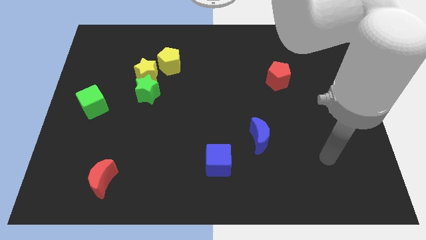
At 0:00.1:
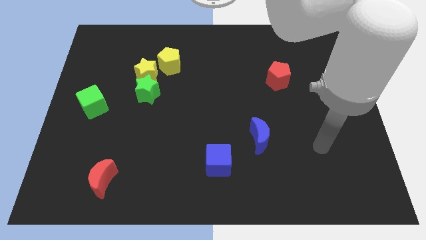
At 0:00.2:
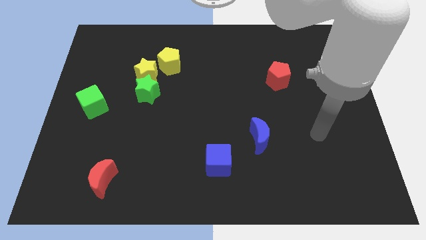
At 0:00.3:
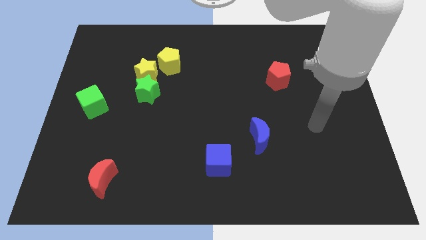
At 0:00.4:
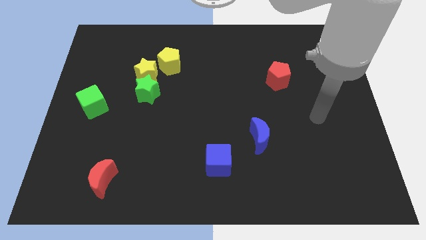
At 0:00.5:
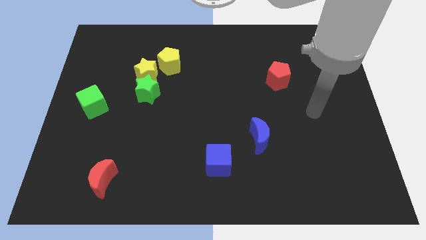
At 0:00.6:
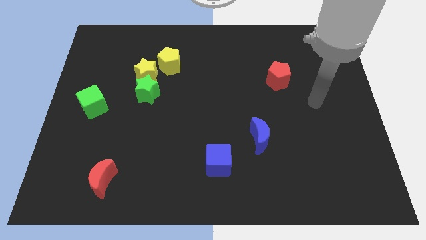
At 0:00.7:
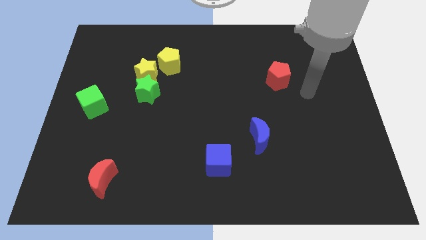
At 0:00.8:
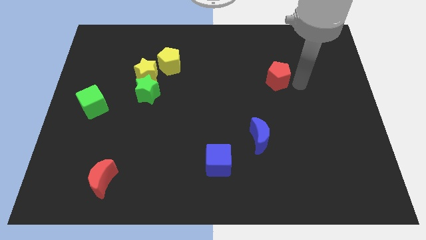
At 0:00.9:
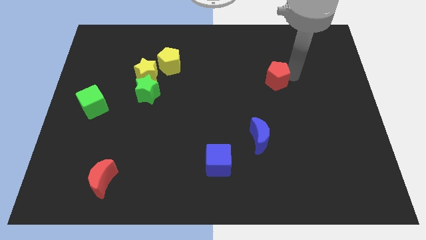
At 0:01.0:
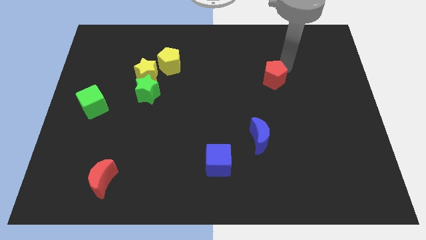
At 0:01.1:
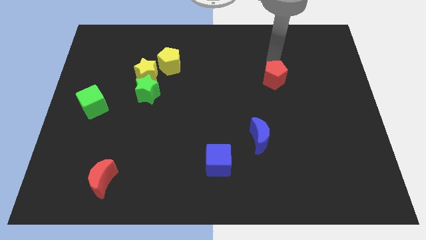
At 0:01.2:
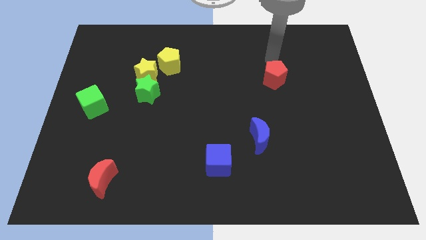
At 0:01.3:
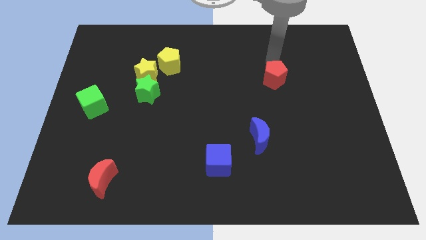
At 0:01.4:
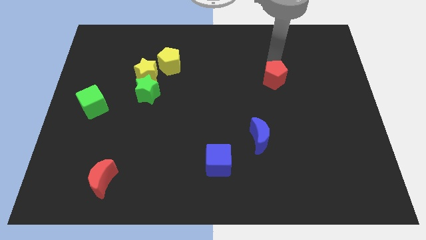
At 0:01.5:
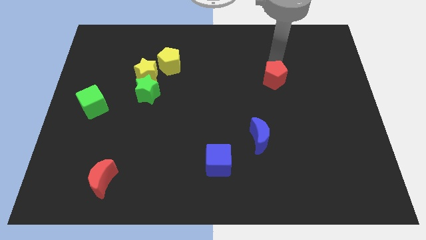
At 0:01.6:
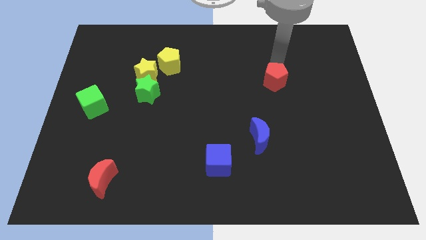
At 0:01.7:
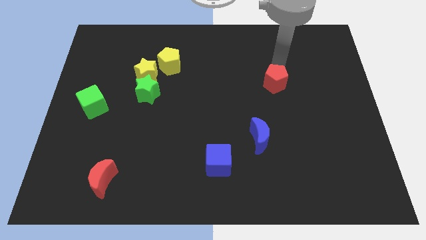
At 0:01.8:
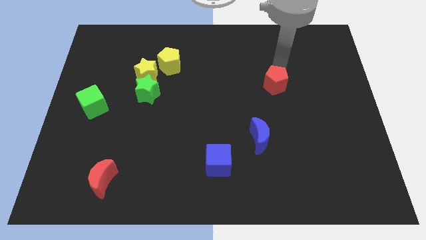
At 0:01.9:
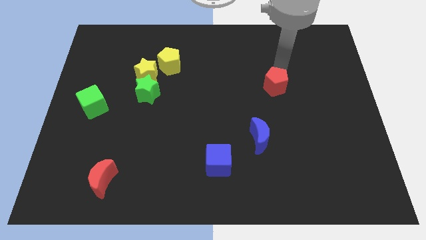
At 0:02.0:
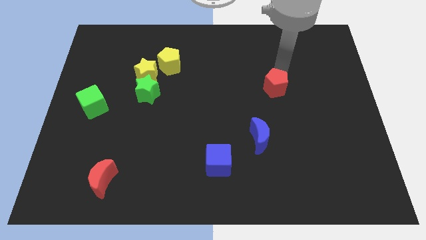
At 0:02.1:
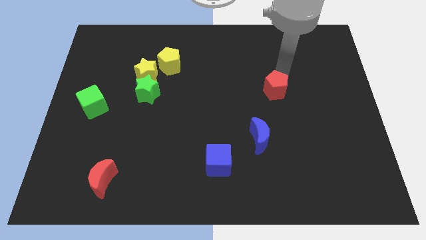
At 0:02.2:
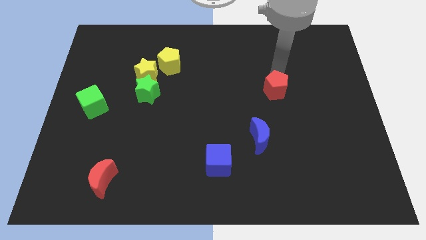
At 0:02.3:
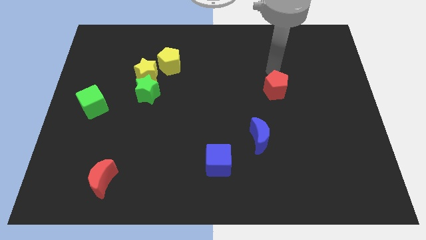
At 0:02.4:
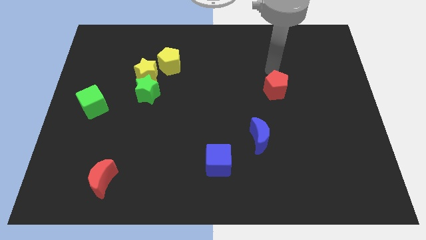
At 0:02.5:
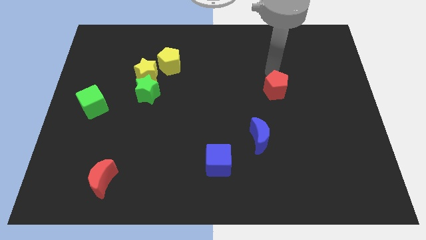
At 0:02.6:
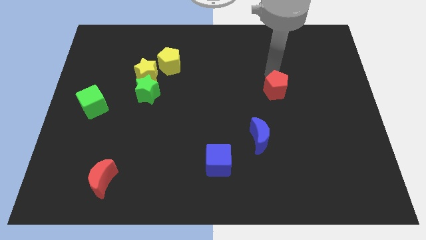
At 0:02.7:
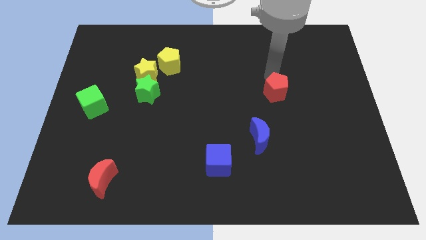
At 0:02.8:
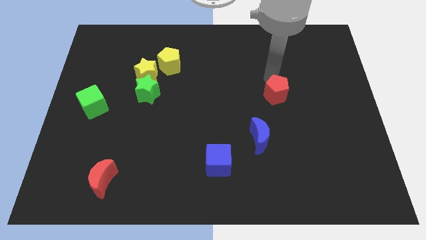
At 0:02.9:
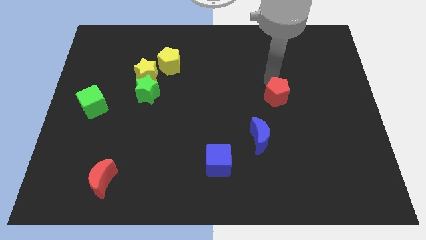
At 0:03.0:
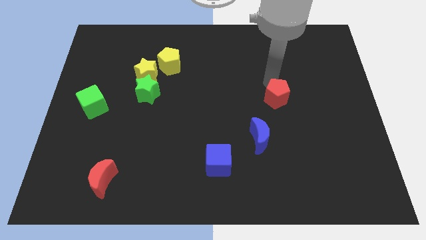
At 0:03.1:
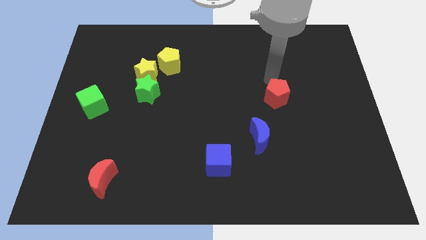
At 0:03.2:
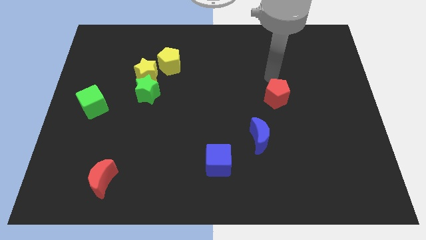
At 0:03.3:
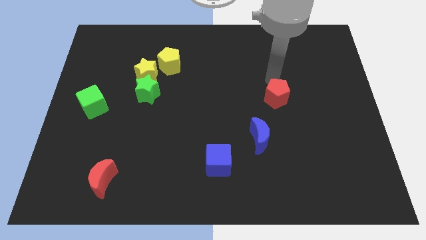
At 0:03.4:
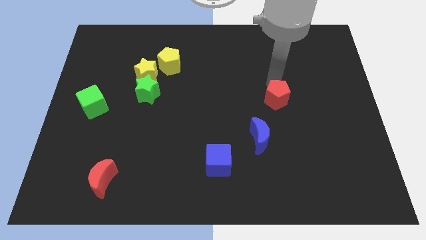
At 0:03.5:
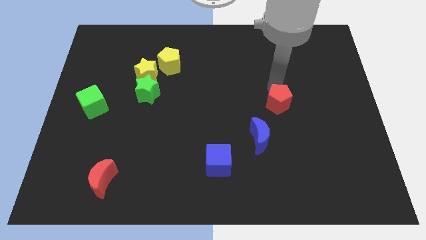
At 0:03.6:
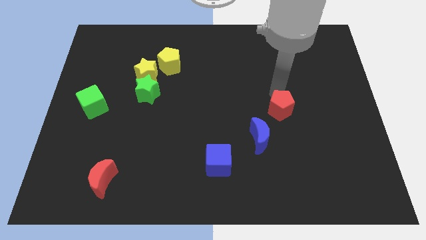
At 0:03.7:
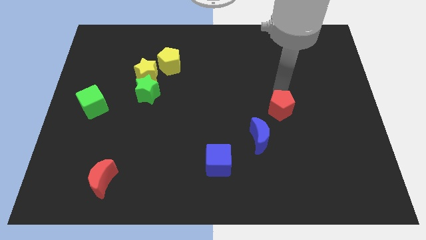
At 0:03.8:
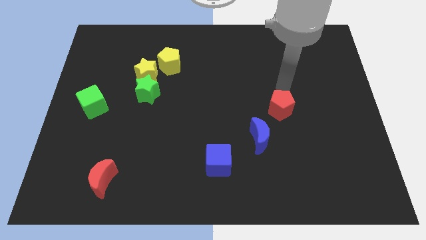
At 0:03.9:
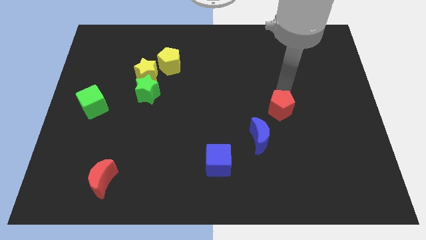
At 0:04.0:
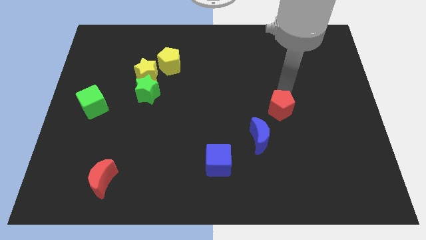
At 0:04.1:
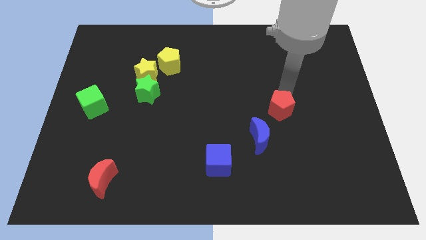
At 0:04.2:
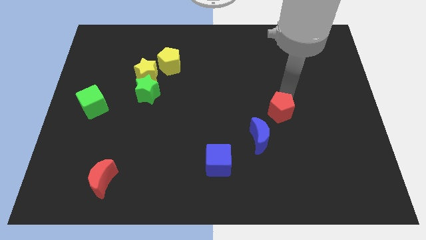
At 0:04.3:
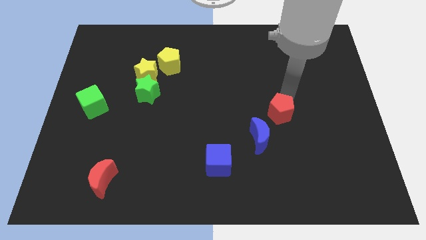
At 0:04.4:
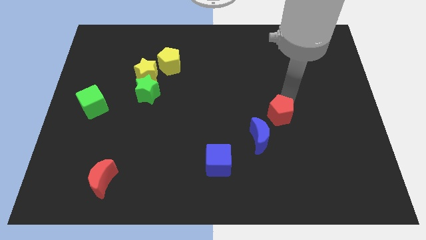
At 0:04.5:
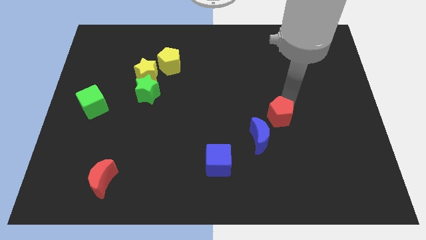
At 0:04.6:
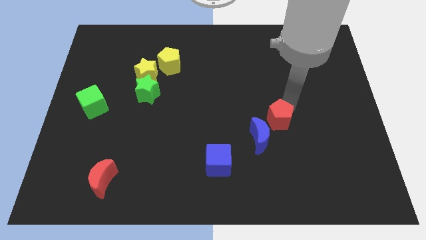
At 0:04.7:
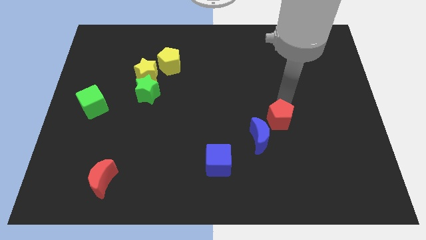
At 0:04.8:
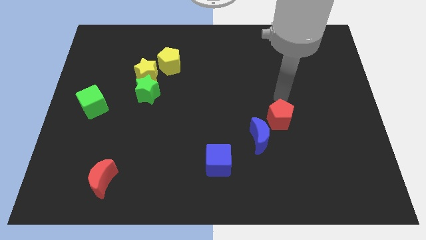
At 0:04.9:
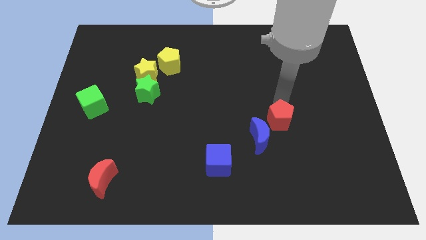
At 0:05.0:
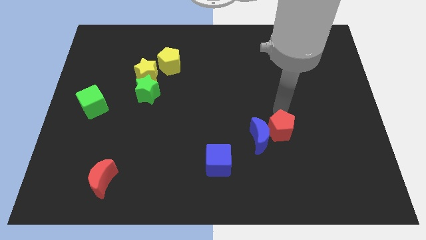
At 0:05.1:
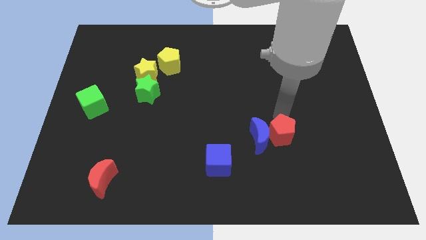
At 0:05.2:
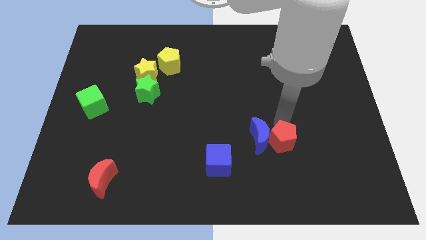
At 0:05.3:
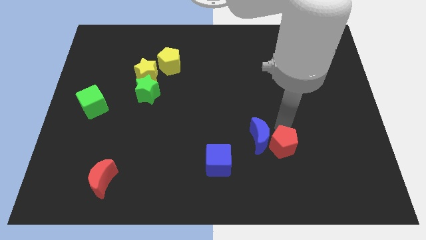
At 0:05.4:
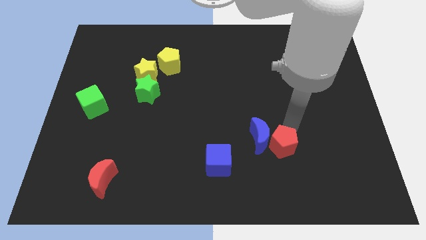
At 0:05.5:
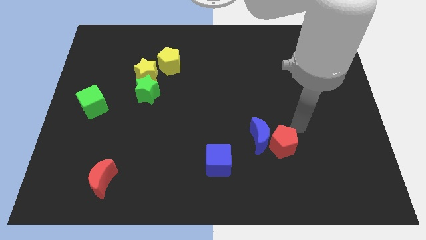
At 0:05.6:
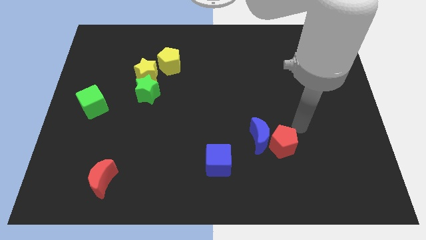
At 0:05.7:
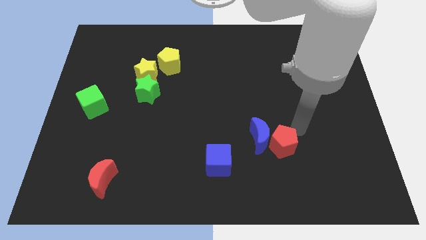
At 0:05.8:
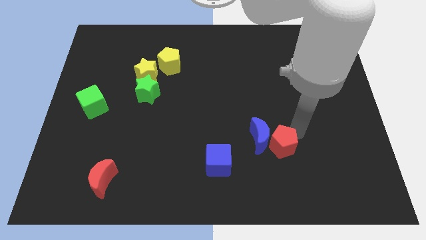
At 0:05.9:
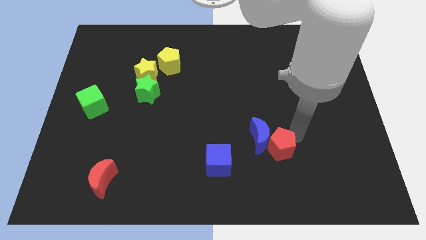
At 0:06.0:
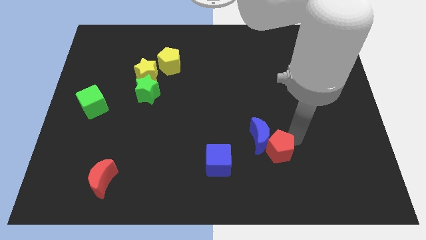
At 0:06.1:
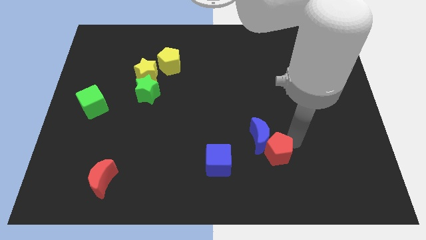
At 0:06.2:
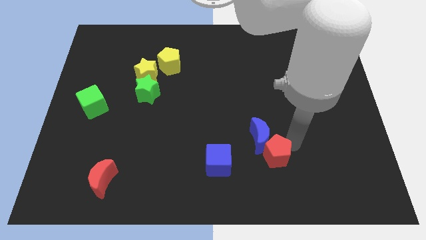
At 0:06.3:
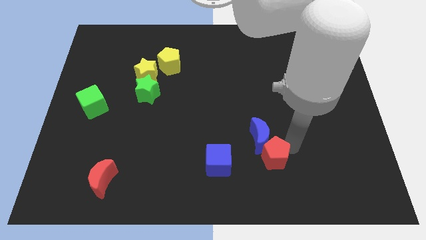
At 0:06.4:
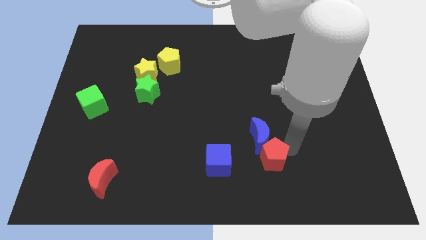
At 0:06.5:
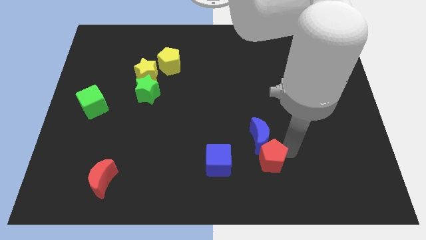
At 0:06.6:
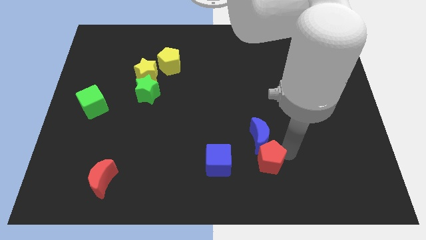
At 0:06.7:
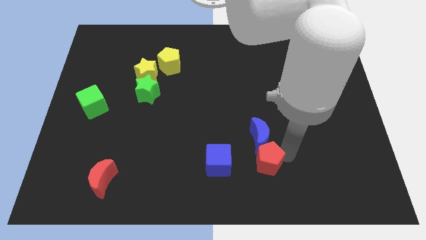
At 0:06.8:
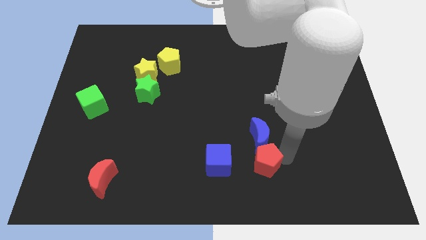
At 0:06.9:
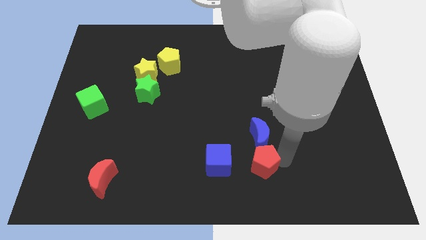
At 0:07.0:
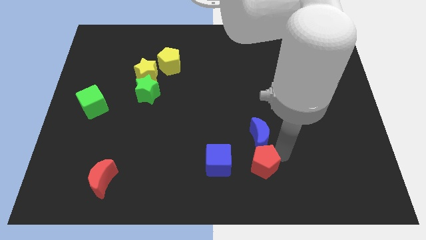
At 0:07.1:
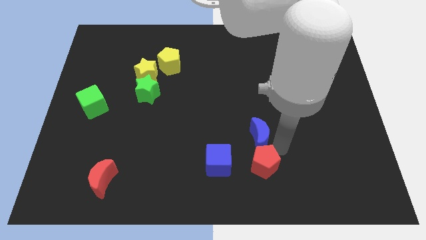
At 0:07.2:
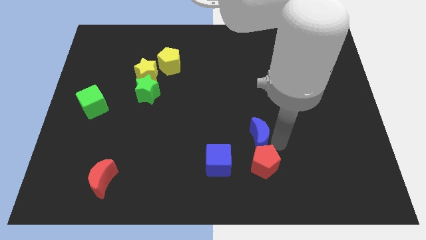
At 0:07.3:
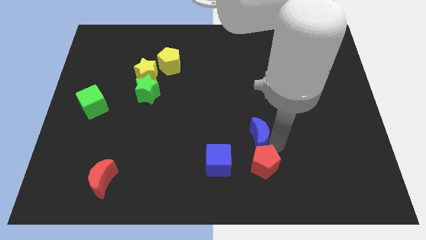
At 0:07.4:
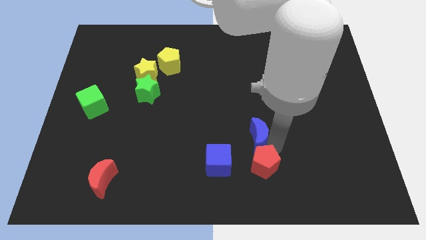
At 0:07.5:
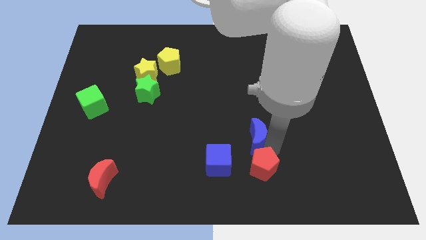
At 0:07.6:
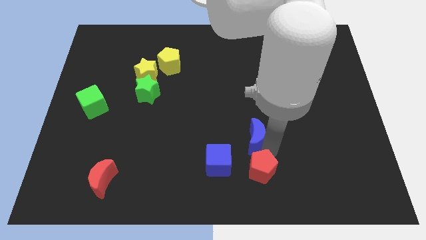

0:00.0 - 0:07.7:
put the red pentagon to the bottom
